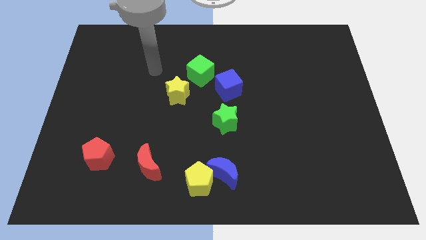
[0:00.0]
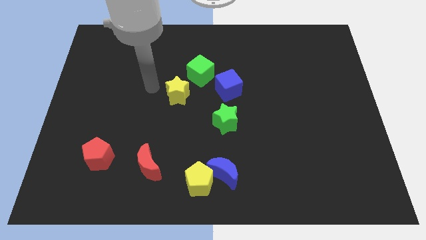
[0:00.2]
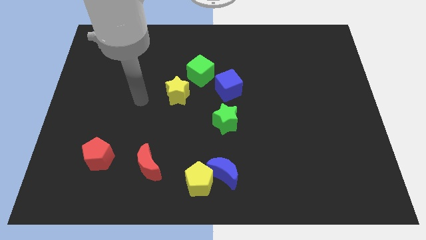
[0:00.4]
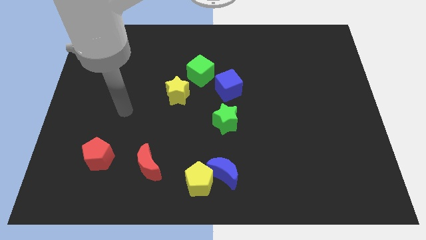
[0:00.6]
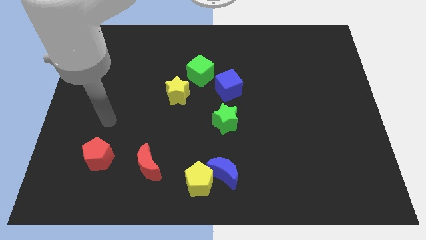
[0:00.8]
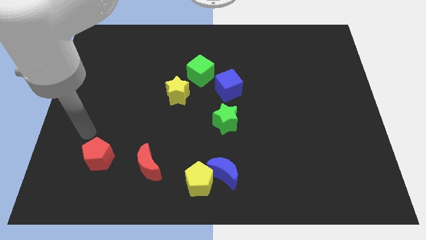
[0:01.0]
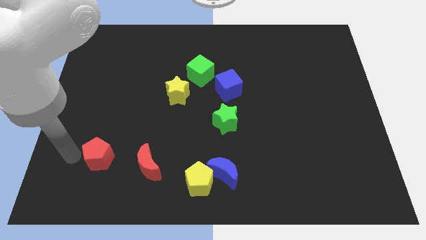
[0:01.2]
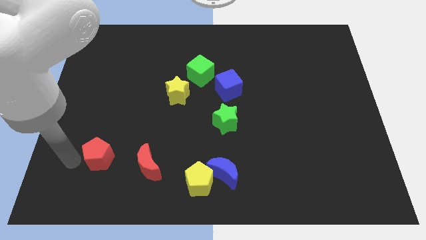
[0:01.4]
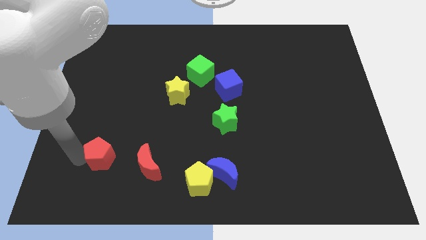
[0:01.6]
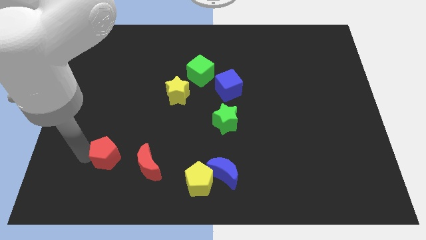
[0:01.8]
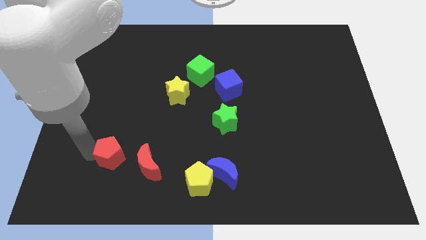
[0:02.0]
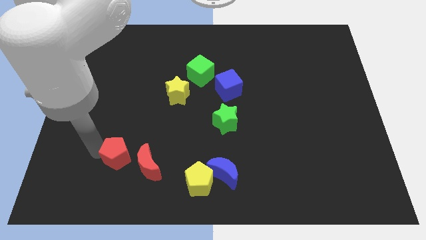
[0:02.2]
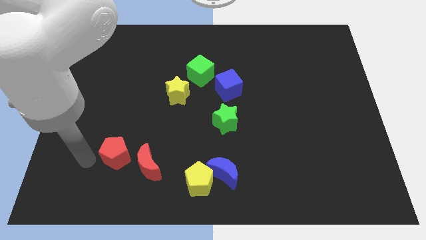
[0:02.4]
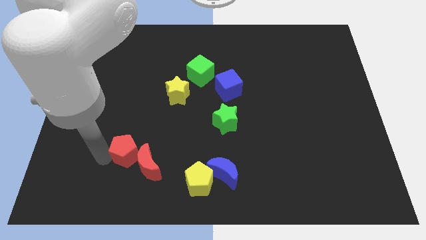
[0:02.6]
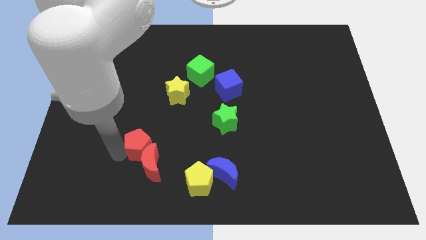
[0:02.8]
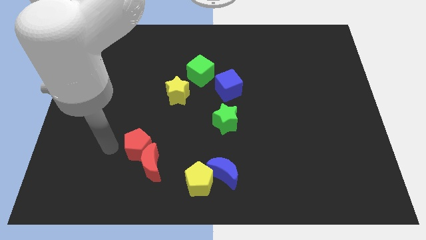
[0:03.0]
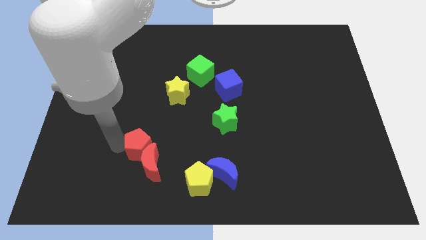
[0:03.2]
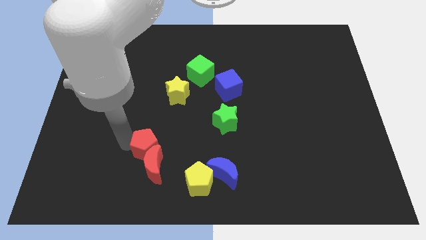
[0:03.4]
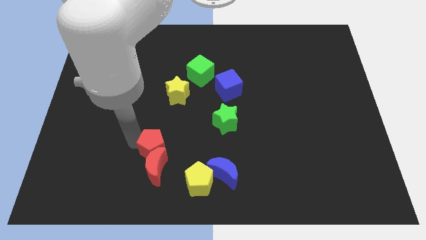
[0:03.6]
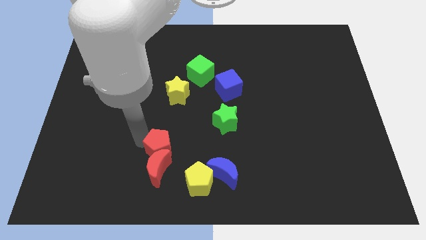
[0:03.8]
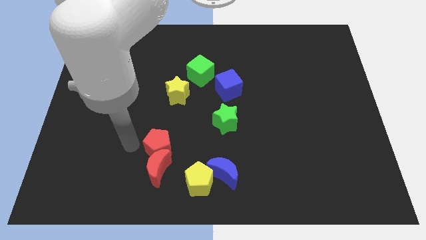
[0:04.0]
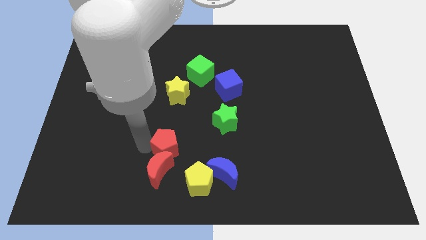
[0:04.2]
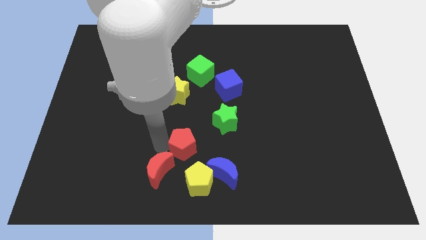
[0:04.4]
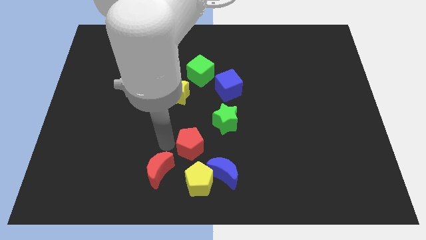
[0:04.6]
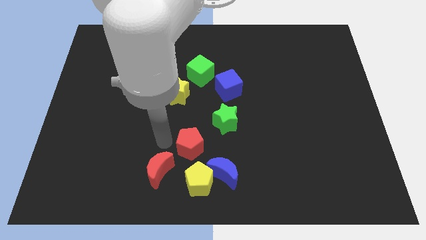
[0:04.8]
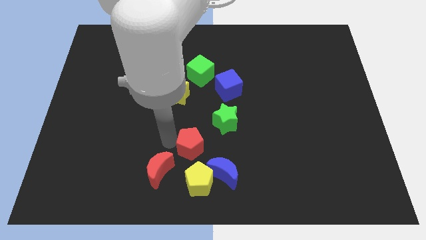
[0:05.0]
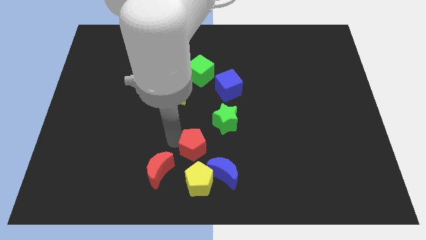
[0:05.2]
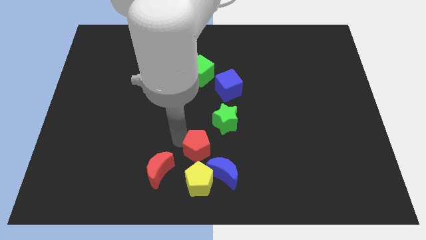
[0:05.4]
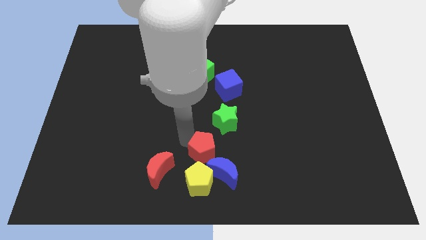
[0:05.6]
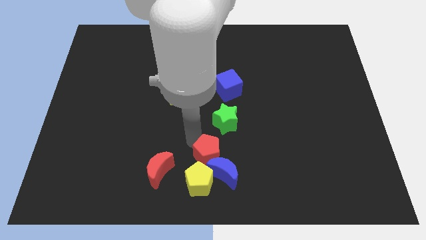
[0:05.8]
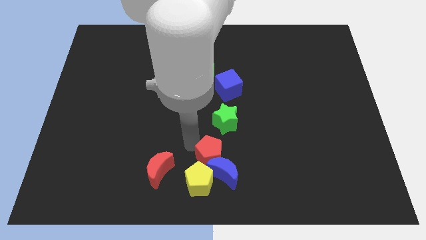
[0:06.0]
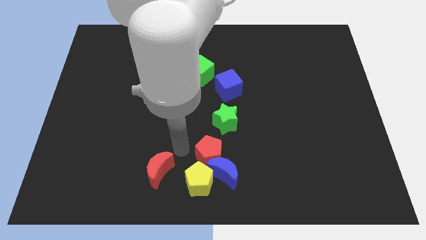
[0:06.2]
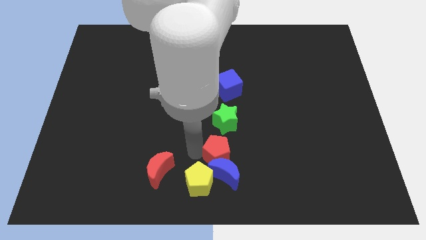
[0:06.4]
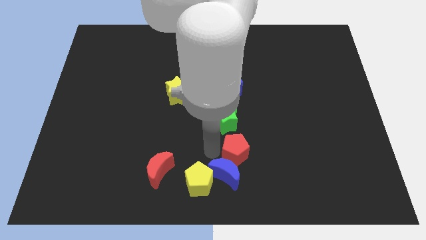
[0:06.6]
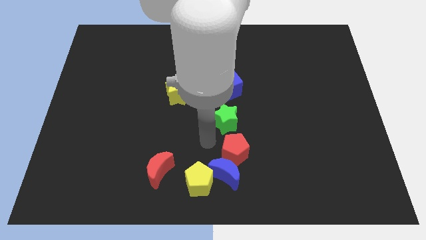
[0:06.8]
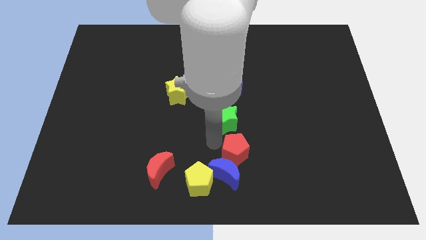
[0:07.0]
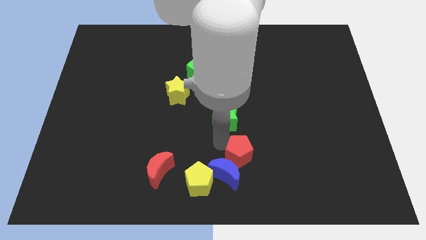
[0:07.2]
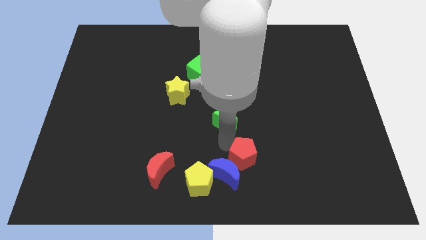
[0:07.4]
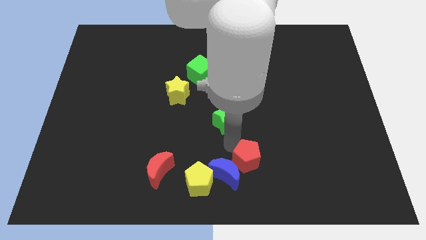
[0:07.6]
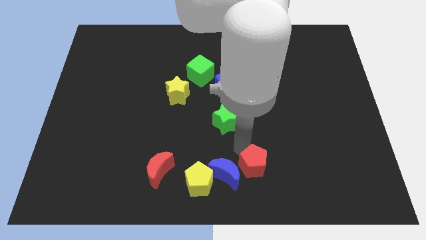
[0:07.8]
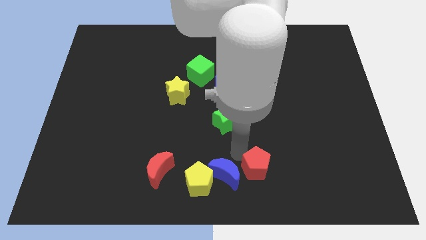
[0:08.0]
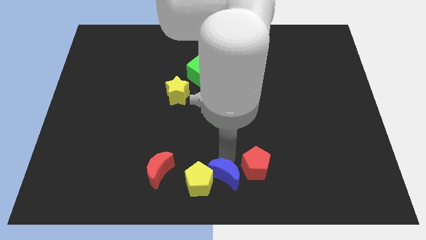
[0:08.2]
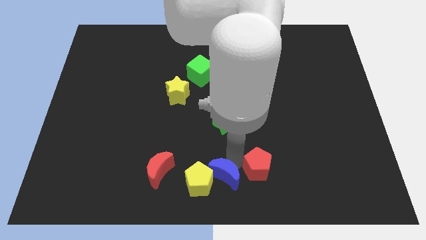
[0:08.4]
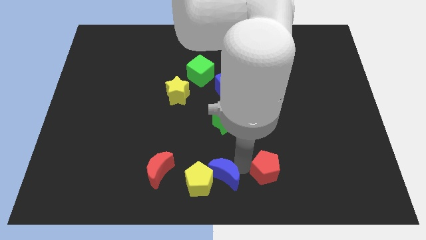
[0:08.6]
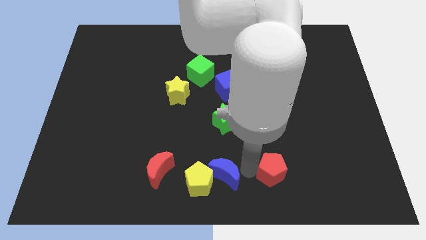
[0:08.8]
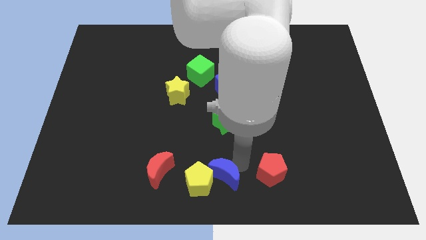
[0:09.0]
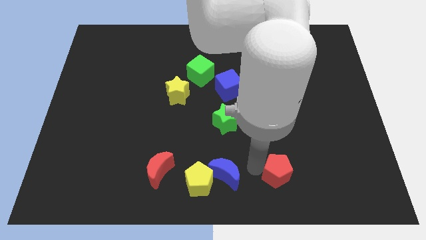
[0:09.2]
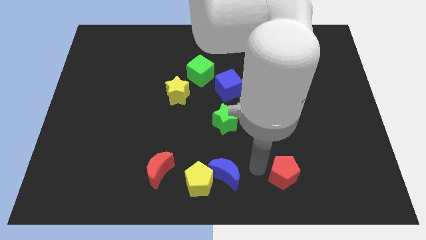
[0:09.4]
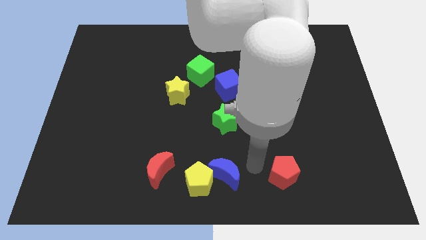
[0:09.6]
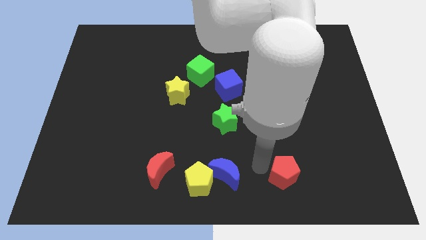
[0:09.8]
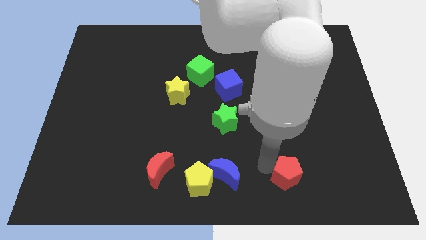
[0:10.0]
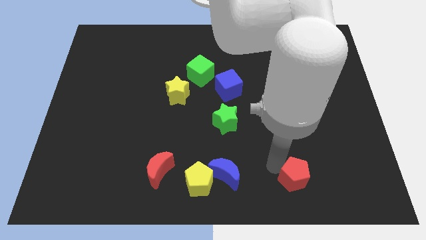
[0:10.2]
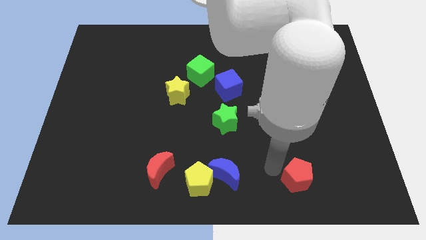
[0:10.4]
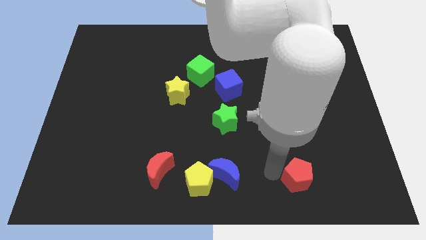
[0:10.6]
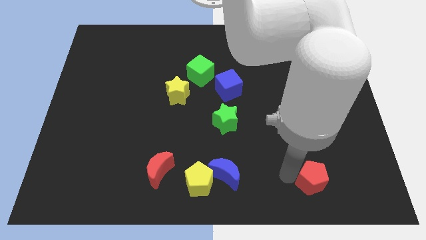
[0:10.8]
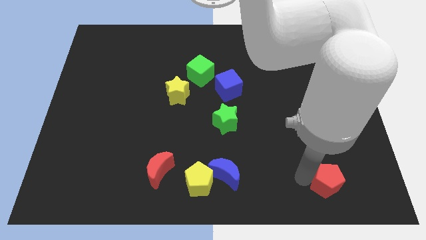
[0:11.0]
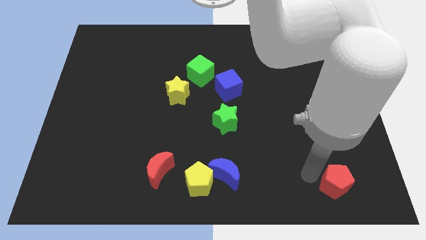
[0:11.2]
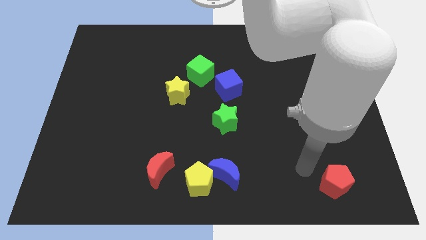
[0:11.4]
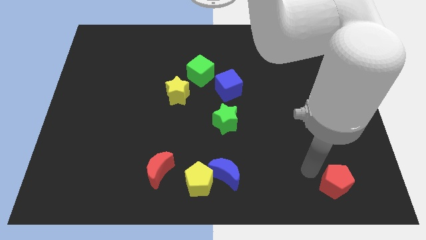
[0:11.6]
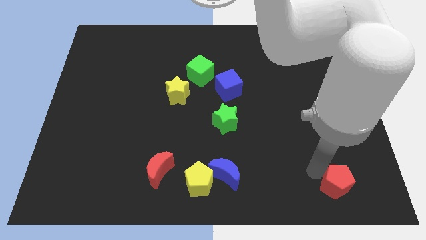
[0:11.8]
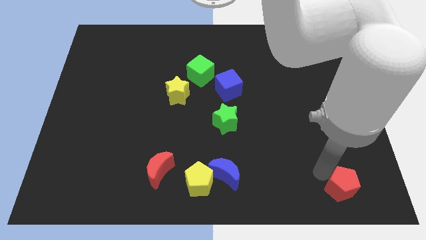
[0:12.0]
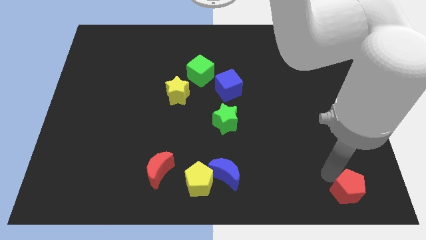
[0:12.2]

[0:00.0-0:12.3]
slide the red pentagon to the lower right corner
